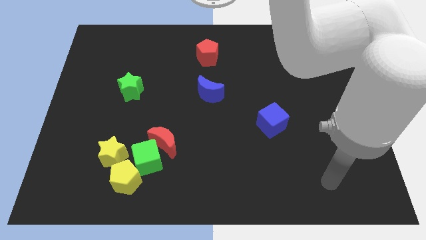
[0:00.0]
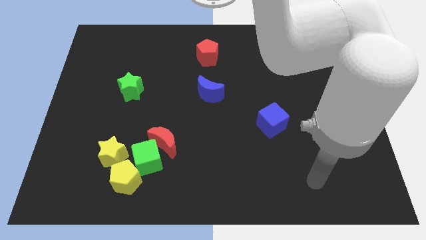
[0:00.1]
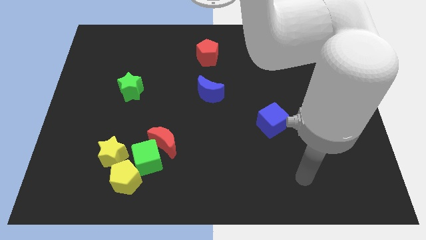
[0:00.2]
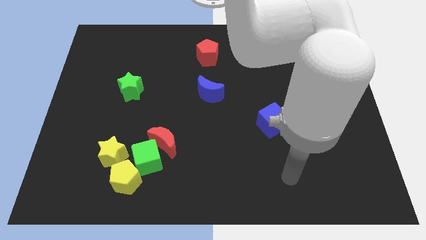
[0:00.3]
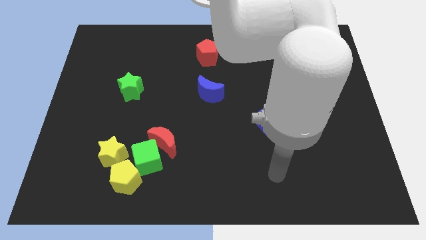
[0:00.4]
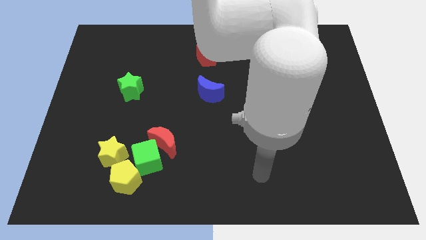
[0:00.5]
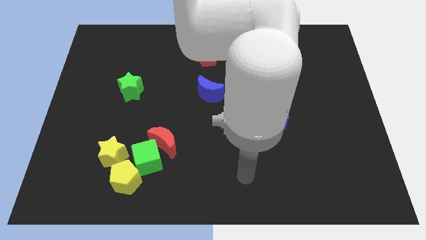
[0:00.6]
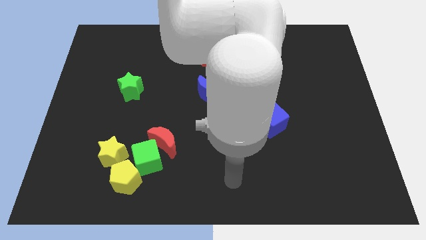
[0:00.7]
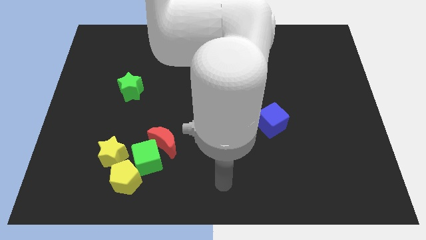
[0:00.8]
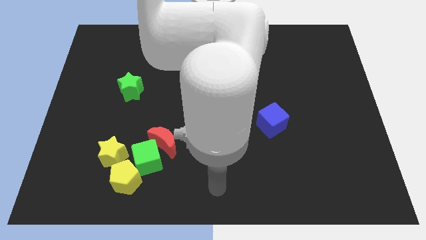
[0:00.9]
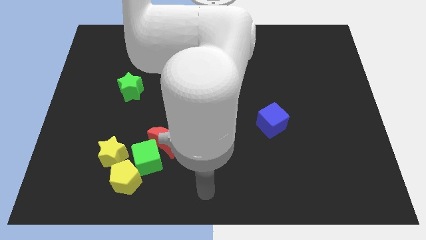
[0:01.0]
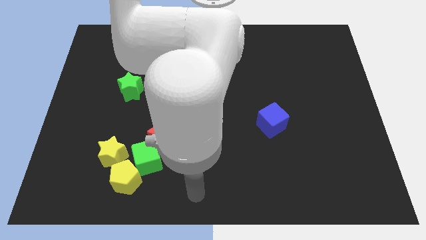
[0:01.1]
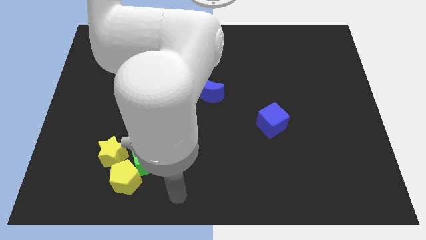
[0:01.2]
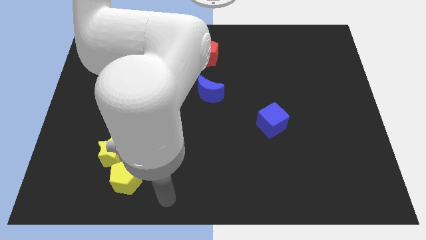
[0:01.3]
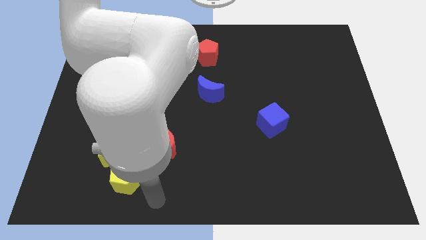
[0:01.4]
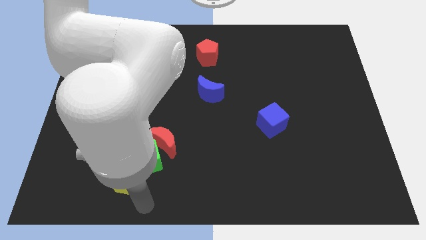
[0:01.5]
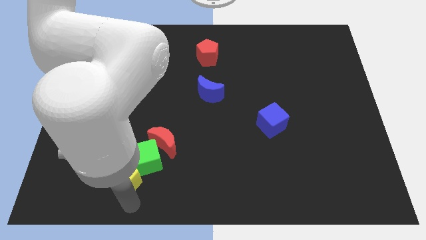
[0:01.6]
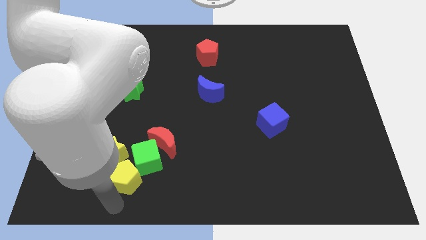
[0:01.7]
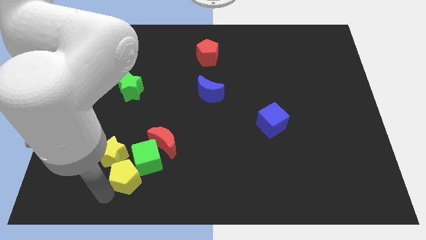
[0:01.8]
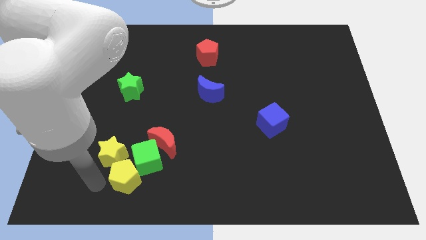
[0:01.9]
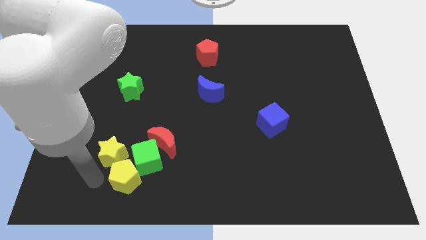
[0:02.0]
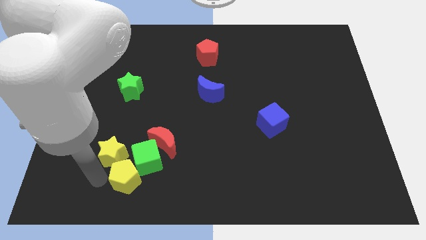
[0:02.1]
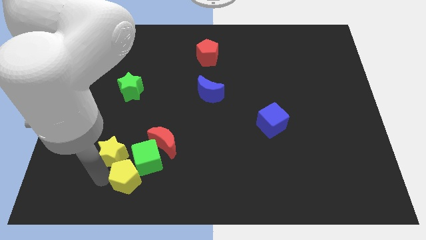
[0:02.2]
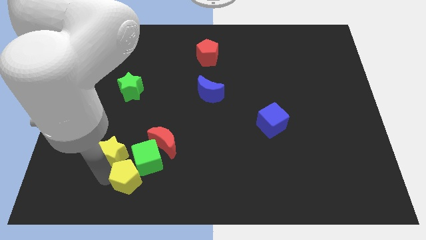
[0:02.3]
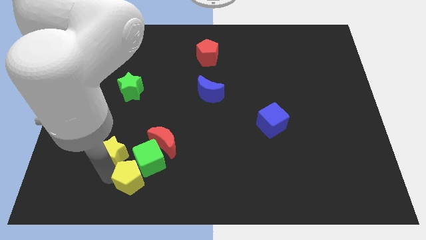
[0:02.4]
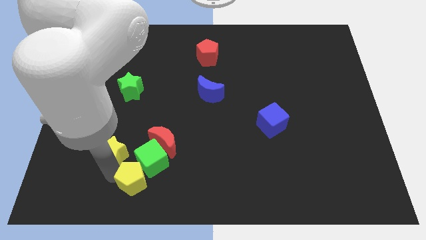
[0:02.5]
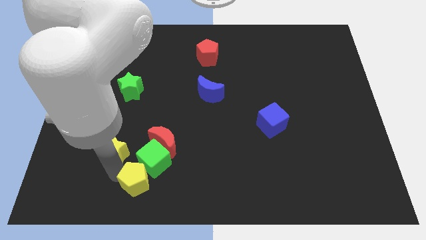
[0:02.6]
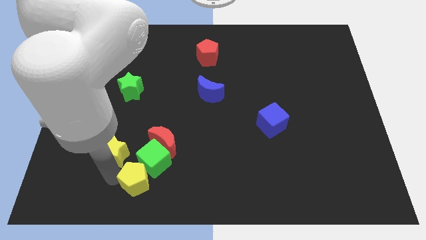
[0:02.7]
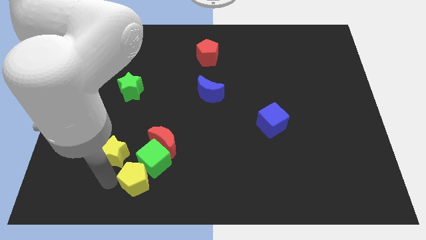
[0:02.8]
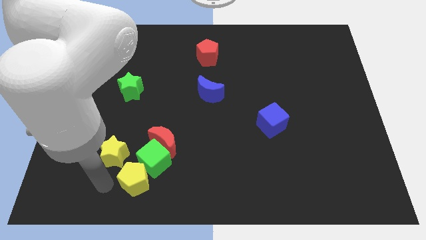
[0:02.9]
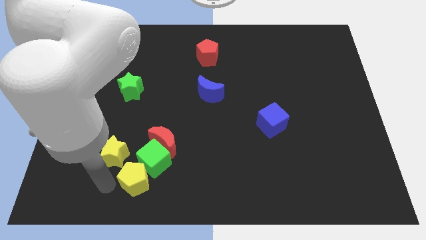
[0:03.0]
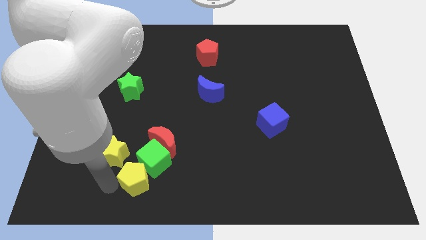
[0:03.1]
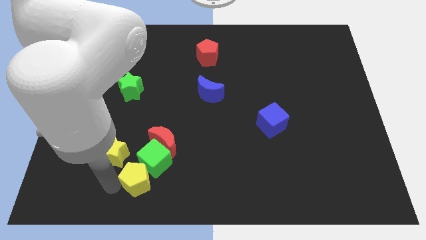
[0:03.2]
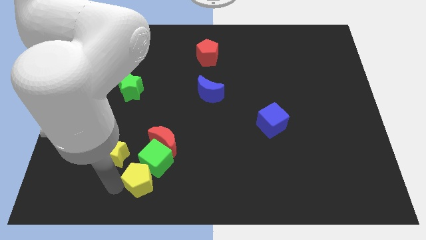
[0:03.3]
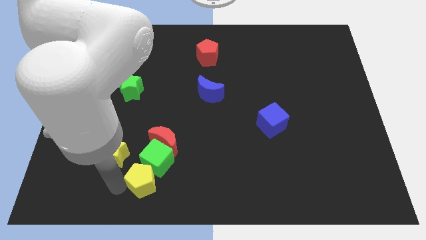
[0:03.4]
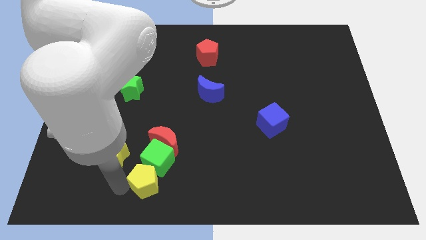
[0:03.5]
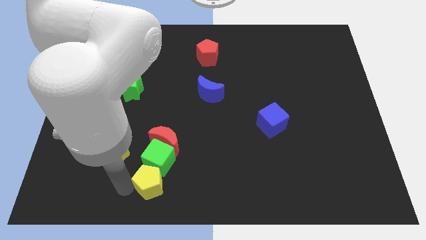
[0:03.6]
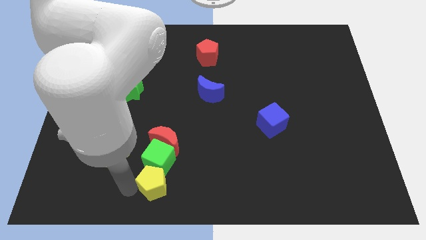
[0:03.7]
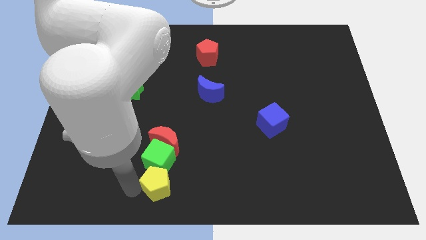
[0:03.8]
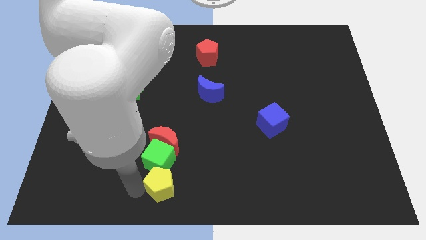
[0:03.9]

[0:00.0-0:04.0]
slide the yellow pentagon a little bit to the right

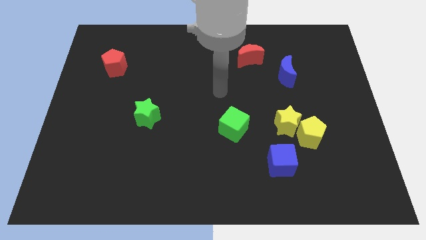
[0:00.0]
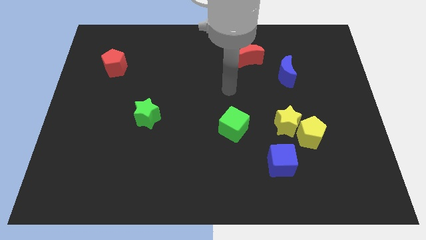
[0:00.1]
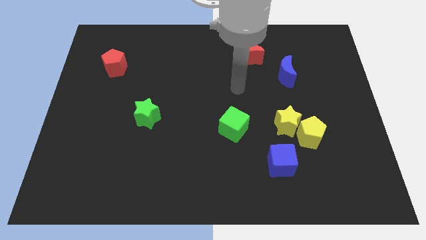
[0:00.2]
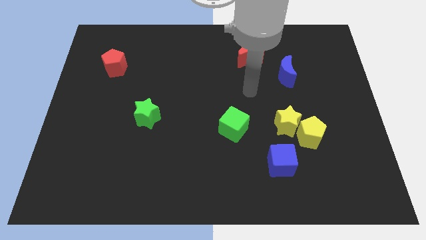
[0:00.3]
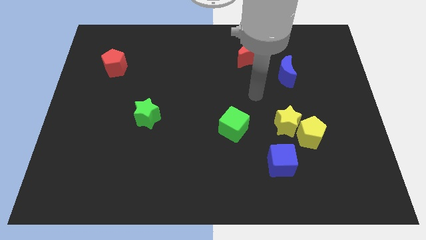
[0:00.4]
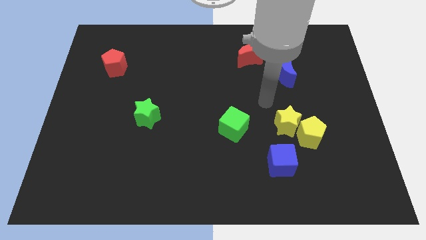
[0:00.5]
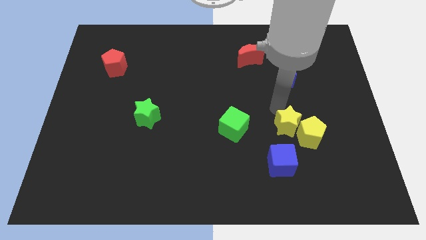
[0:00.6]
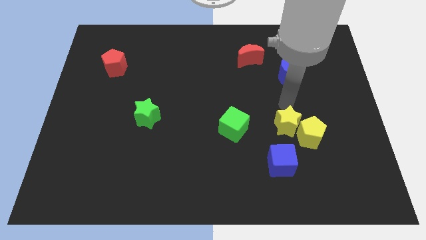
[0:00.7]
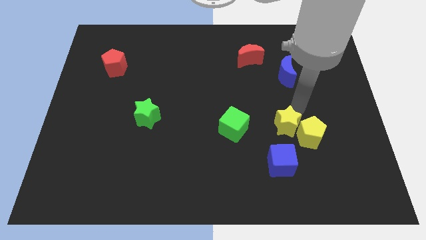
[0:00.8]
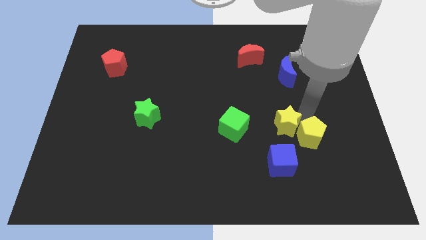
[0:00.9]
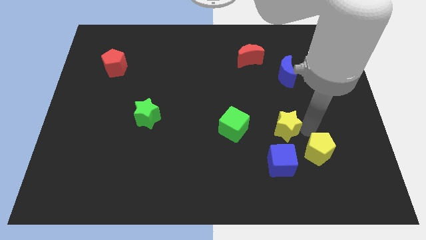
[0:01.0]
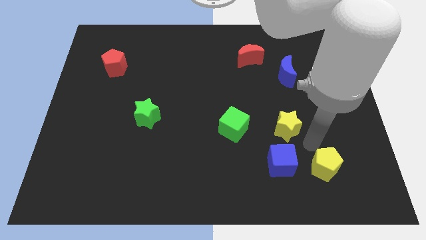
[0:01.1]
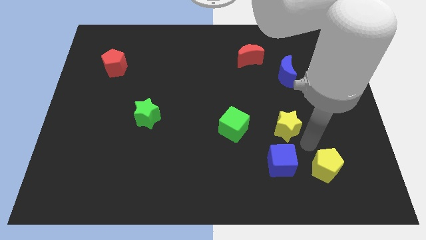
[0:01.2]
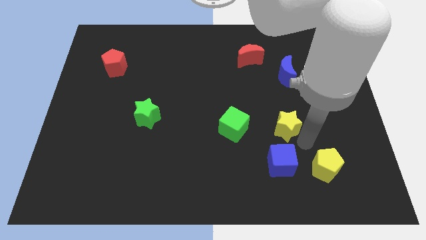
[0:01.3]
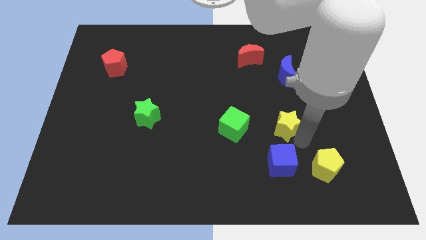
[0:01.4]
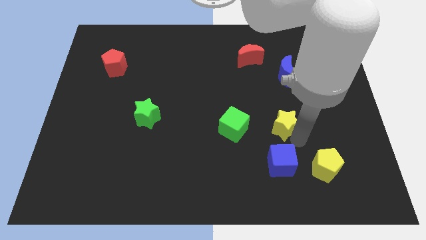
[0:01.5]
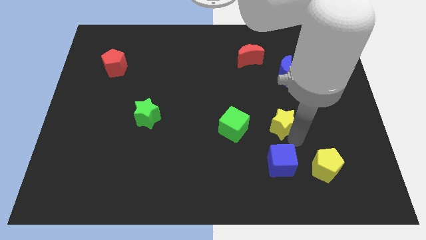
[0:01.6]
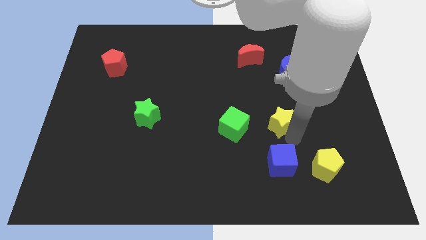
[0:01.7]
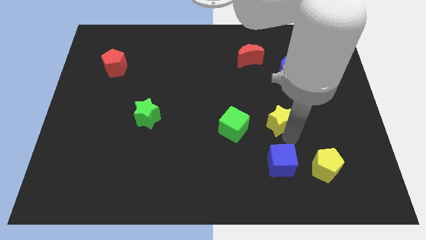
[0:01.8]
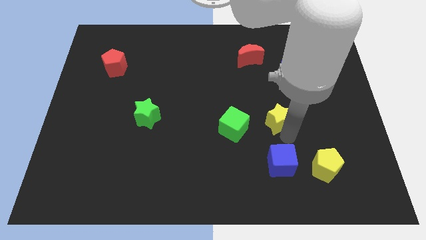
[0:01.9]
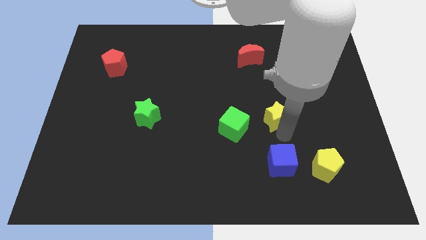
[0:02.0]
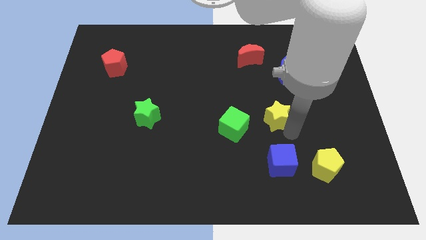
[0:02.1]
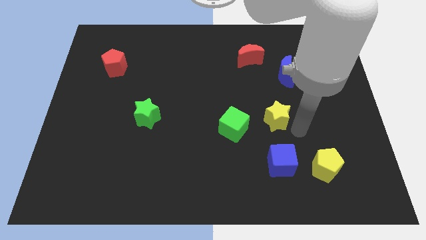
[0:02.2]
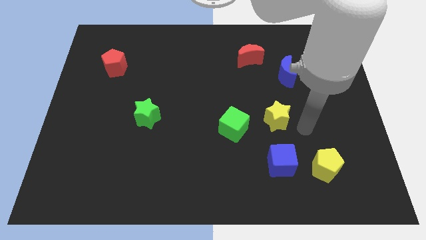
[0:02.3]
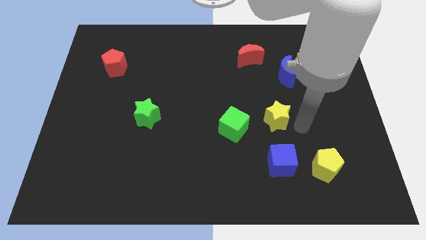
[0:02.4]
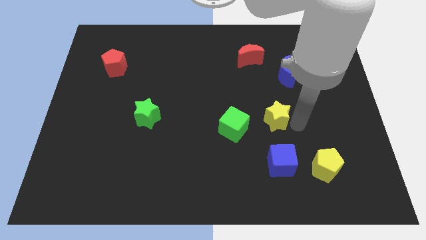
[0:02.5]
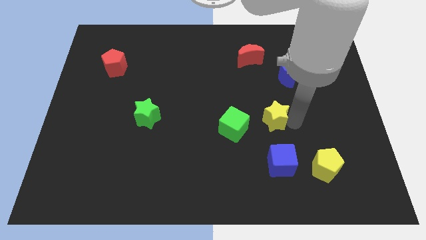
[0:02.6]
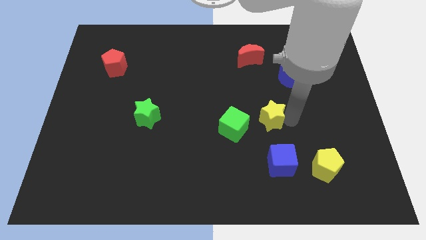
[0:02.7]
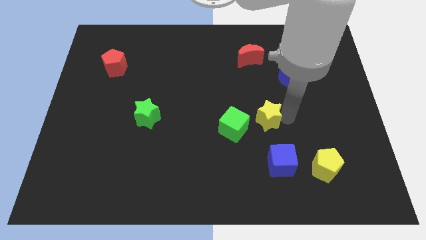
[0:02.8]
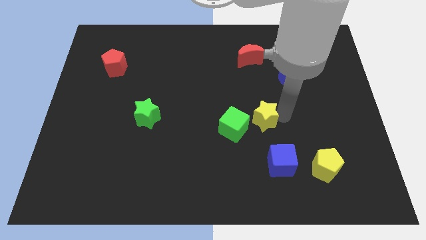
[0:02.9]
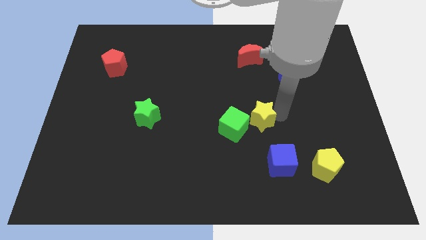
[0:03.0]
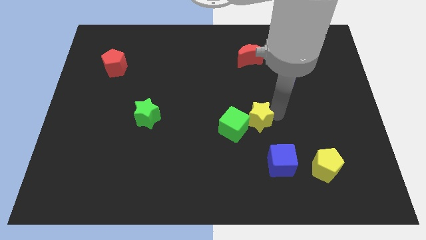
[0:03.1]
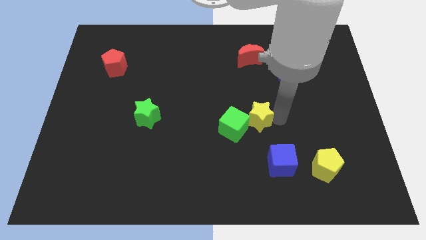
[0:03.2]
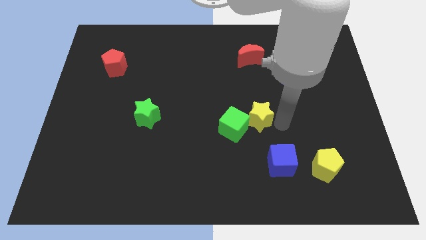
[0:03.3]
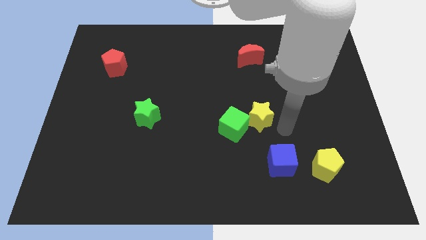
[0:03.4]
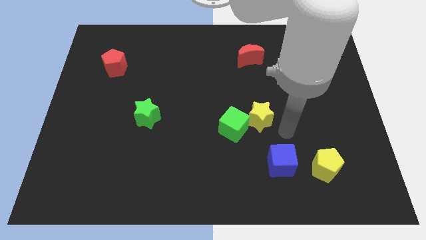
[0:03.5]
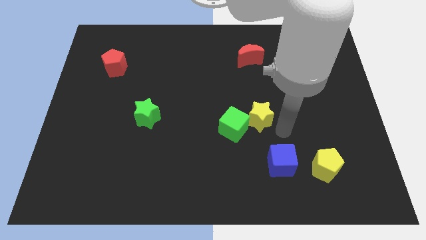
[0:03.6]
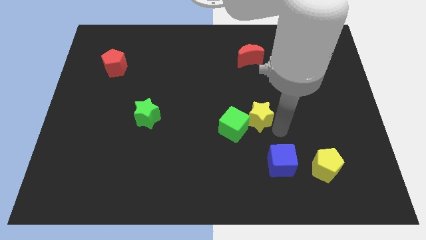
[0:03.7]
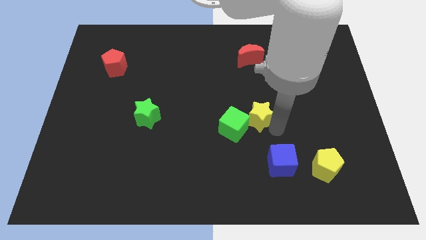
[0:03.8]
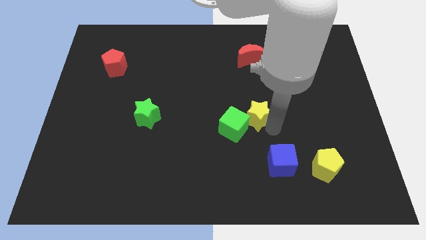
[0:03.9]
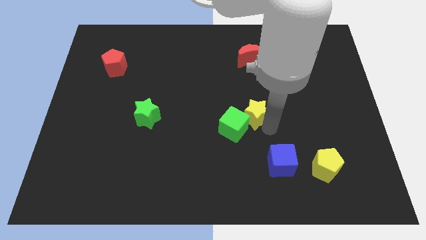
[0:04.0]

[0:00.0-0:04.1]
move the yellow star left a bit
